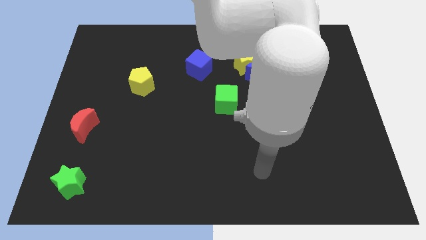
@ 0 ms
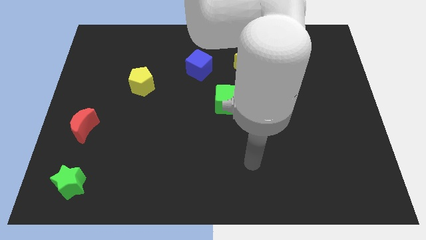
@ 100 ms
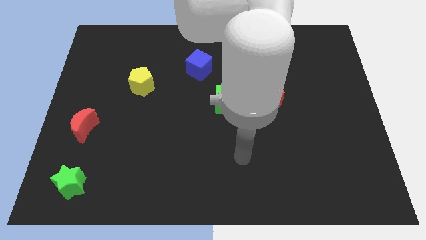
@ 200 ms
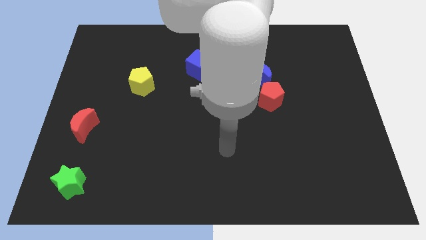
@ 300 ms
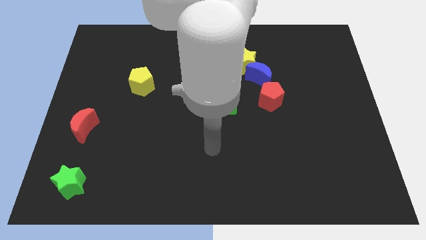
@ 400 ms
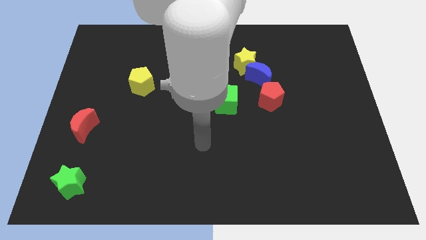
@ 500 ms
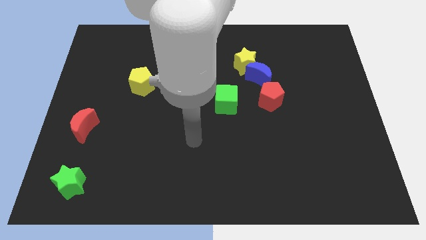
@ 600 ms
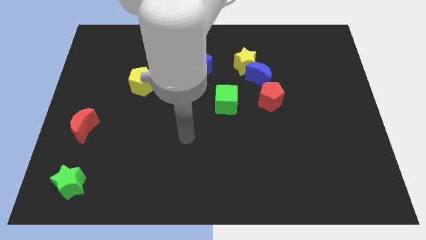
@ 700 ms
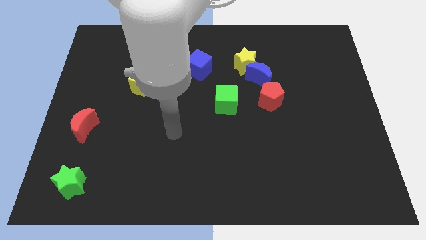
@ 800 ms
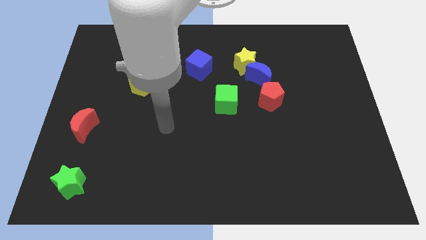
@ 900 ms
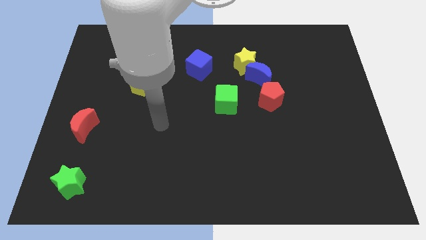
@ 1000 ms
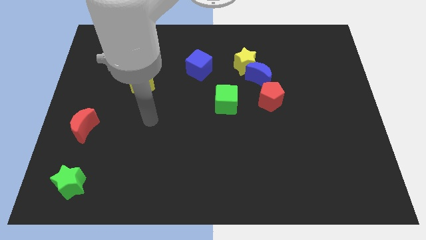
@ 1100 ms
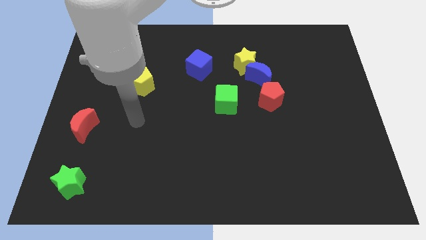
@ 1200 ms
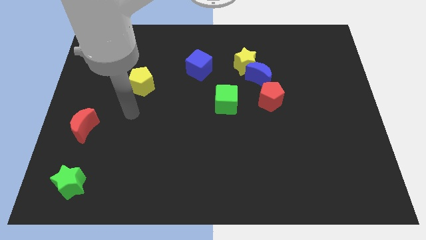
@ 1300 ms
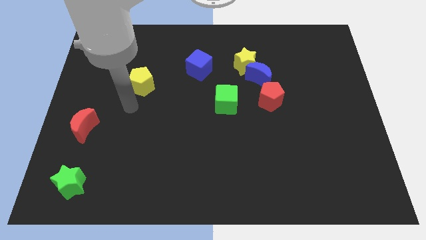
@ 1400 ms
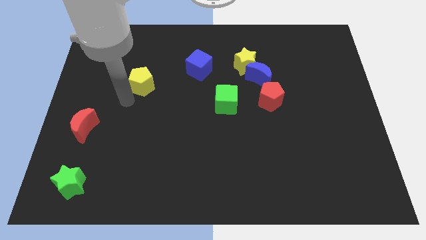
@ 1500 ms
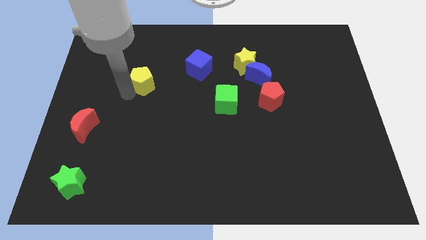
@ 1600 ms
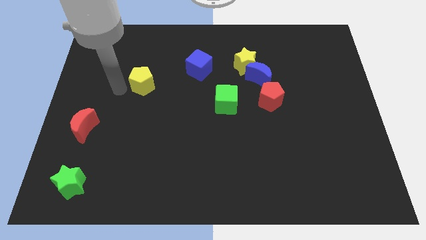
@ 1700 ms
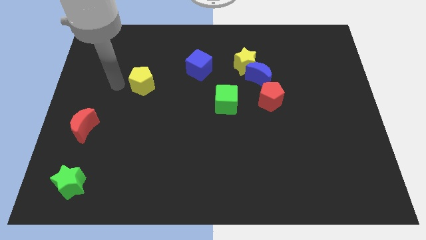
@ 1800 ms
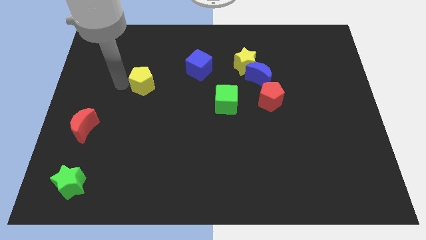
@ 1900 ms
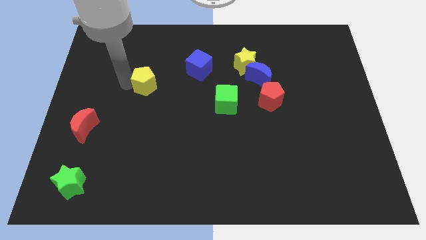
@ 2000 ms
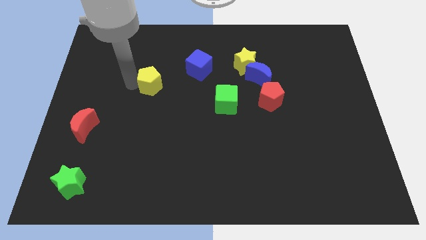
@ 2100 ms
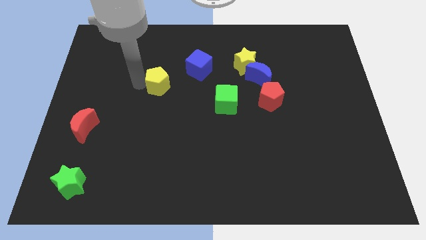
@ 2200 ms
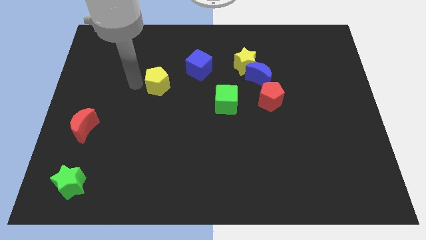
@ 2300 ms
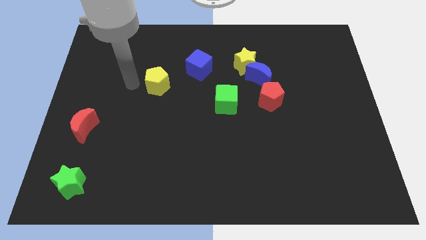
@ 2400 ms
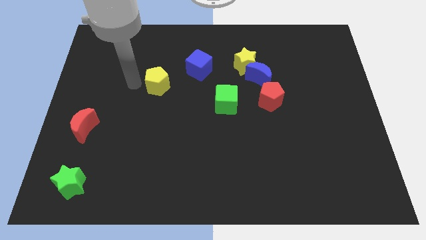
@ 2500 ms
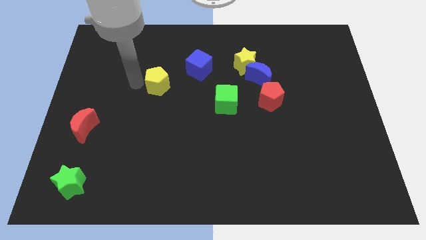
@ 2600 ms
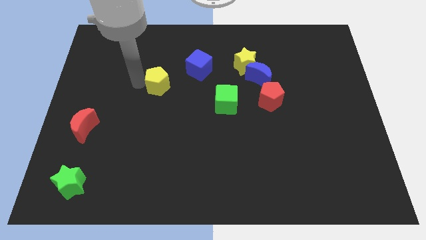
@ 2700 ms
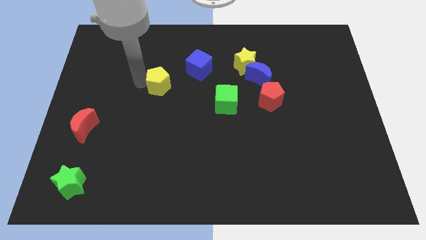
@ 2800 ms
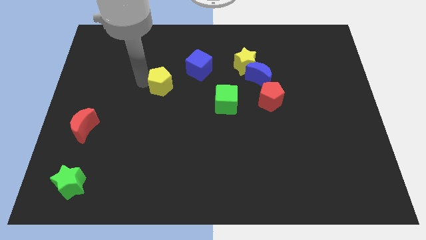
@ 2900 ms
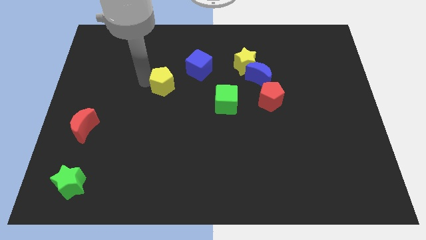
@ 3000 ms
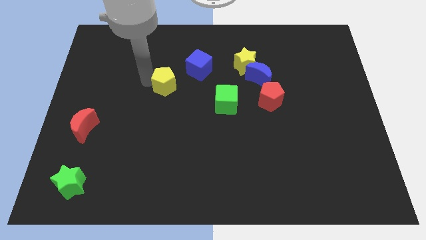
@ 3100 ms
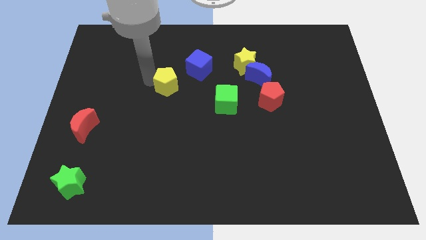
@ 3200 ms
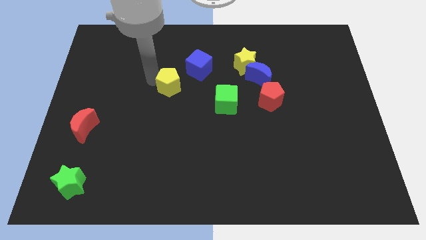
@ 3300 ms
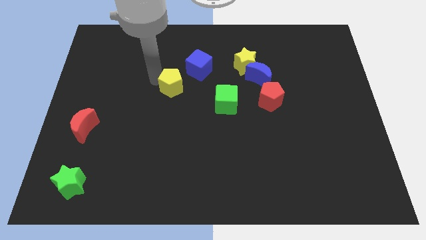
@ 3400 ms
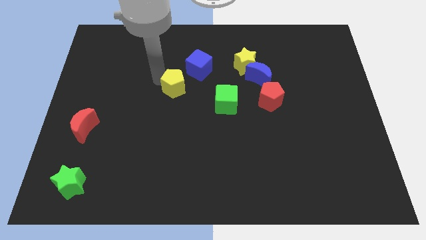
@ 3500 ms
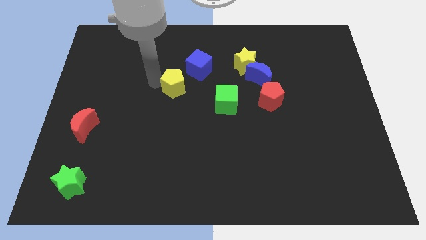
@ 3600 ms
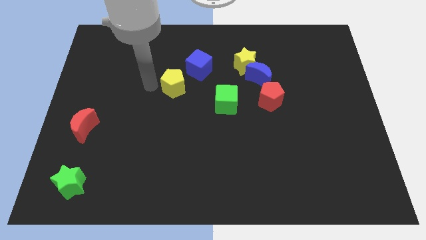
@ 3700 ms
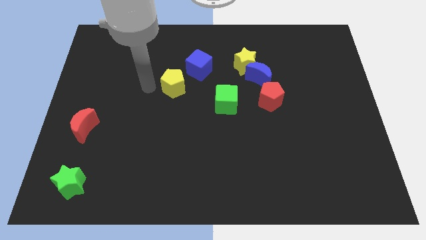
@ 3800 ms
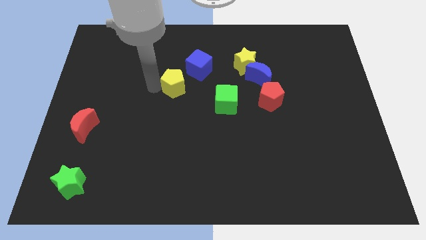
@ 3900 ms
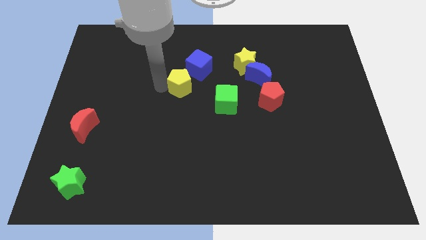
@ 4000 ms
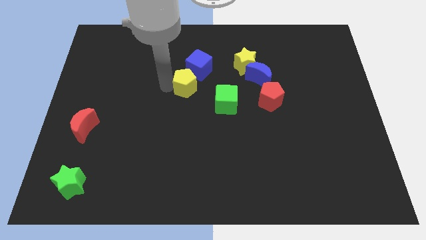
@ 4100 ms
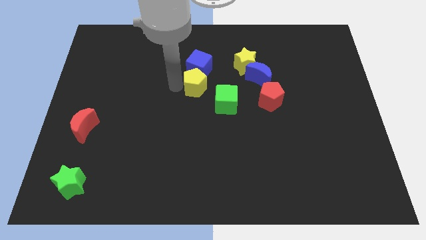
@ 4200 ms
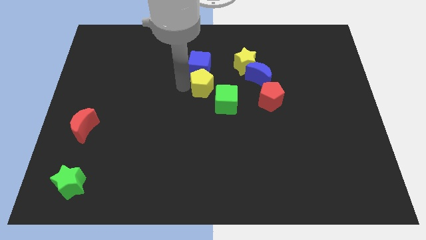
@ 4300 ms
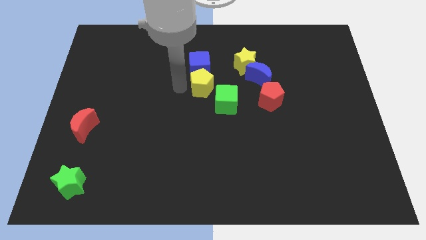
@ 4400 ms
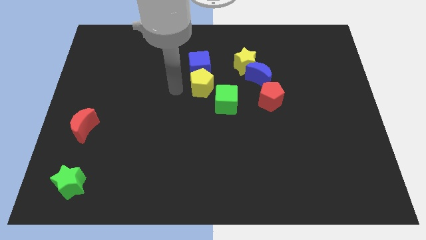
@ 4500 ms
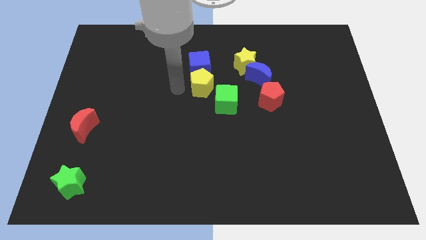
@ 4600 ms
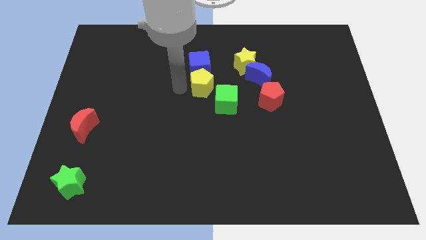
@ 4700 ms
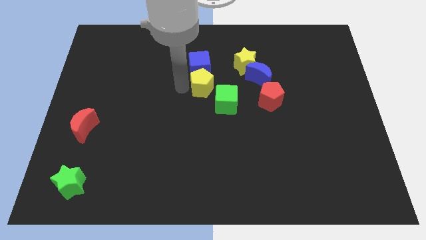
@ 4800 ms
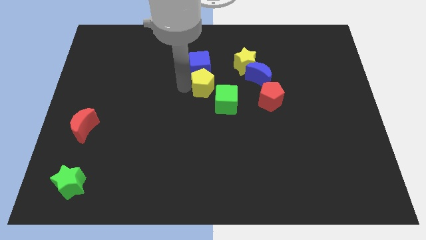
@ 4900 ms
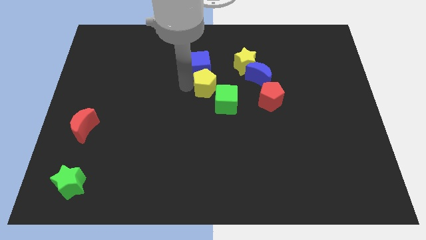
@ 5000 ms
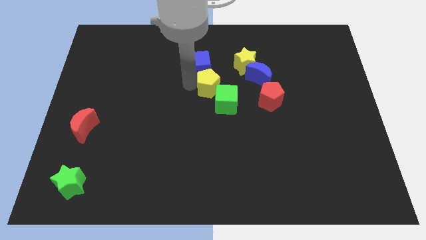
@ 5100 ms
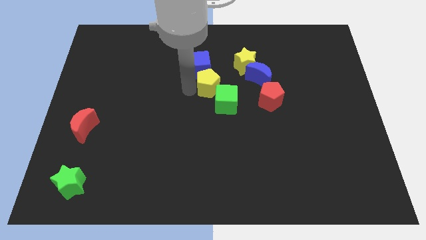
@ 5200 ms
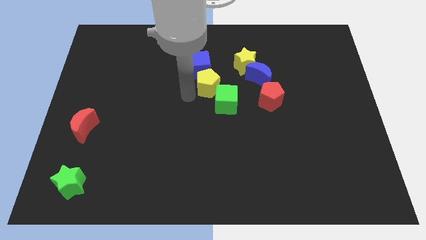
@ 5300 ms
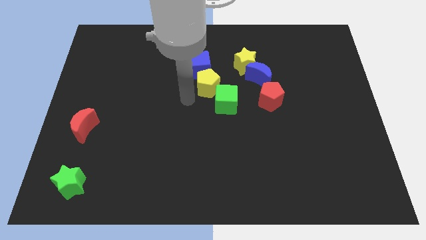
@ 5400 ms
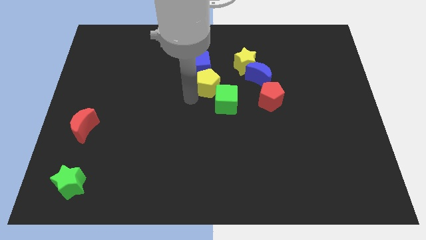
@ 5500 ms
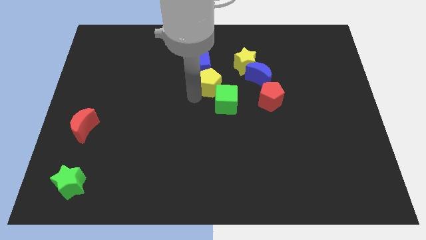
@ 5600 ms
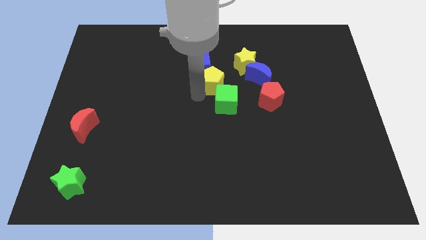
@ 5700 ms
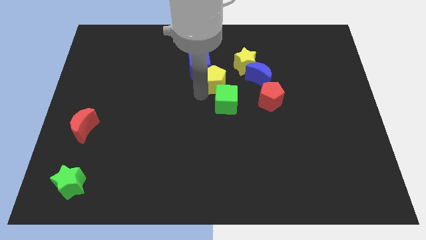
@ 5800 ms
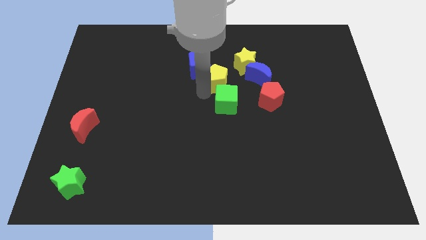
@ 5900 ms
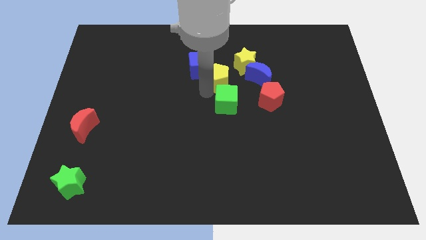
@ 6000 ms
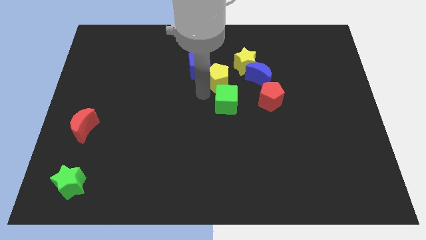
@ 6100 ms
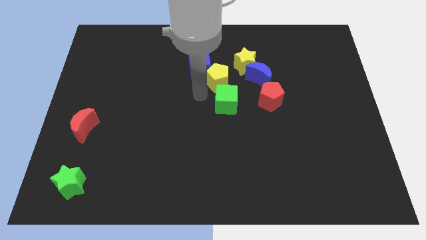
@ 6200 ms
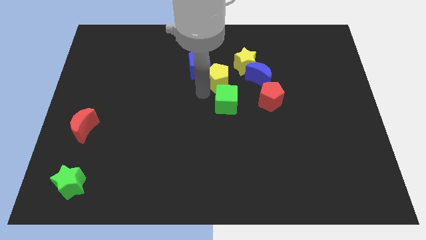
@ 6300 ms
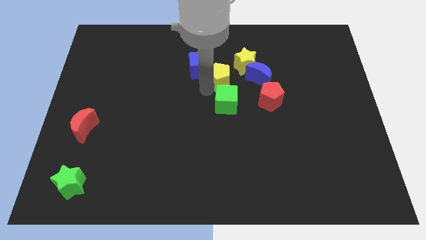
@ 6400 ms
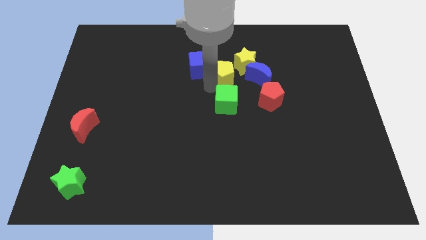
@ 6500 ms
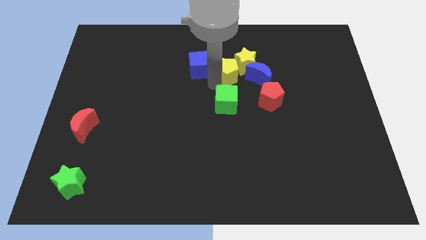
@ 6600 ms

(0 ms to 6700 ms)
slide the yellow pentagon to the yellow star

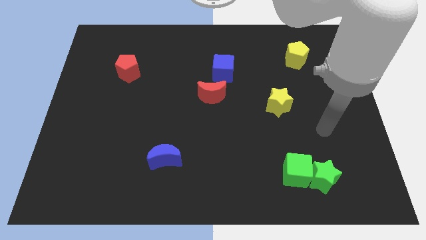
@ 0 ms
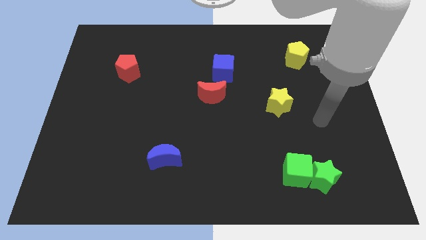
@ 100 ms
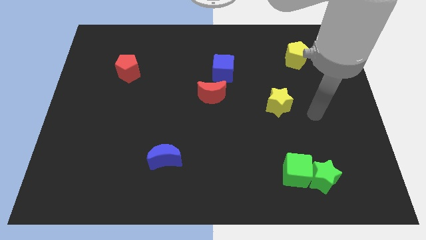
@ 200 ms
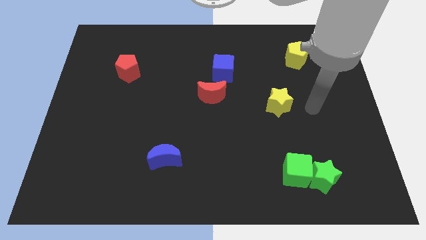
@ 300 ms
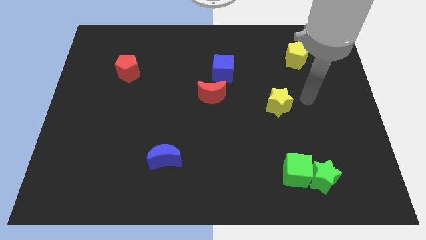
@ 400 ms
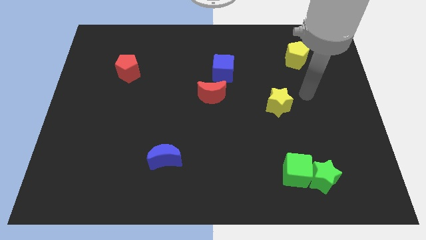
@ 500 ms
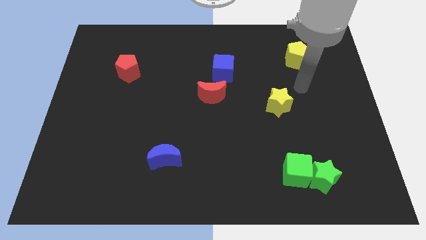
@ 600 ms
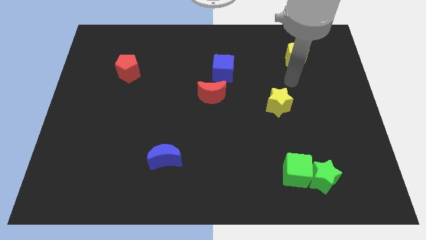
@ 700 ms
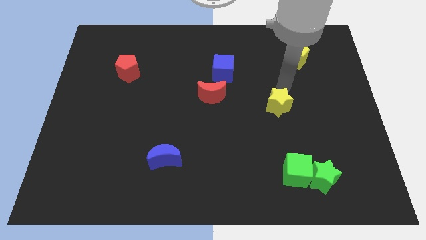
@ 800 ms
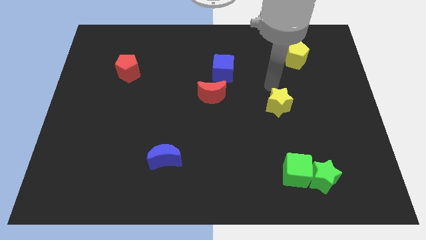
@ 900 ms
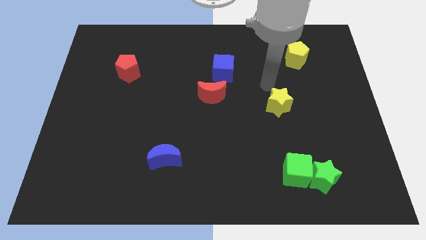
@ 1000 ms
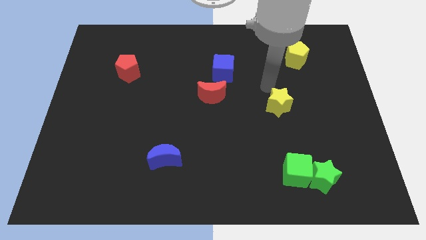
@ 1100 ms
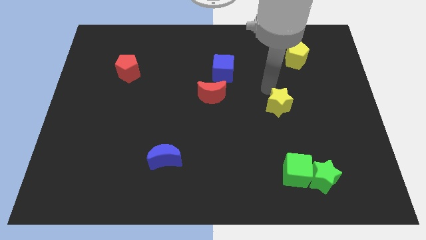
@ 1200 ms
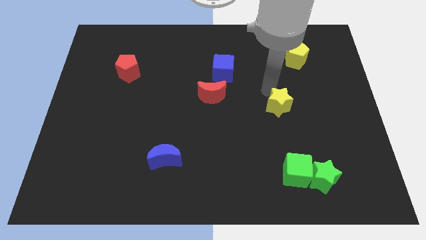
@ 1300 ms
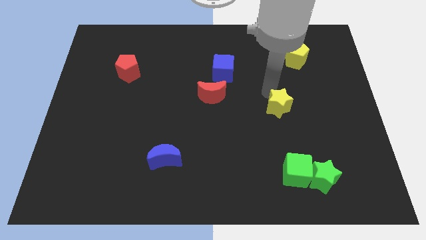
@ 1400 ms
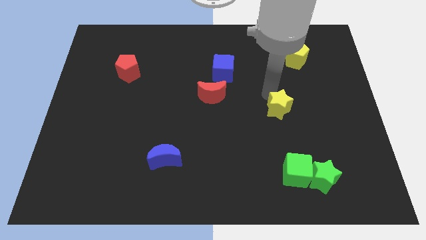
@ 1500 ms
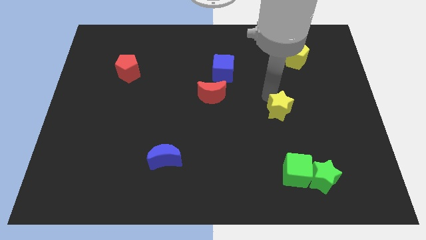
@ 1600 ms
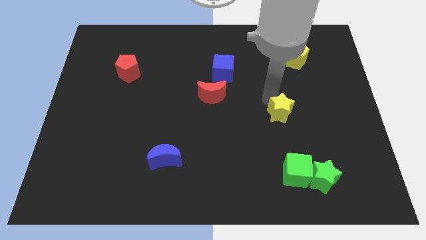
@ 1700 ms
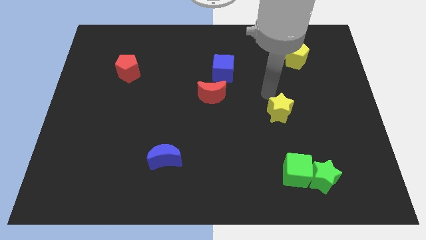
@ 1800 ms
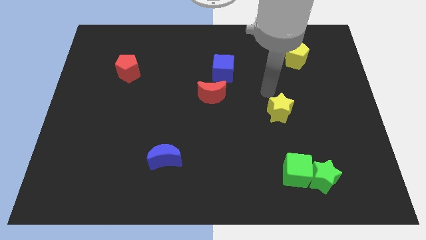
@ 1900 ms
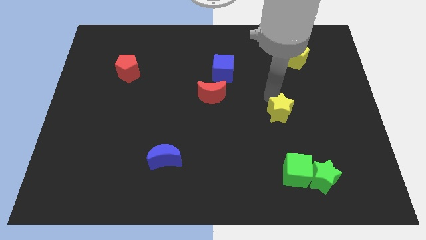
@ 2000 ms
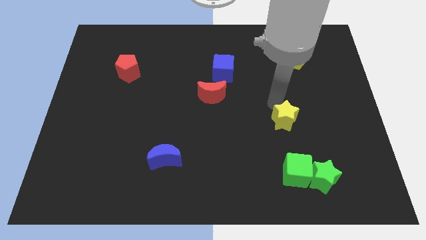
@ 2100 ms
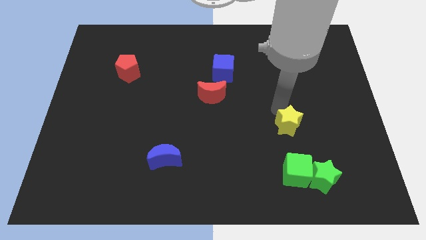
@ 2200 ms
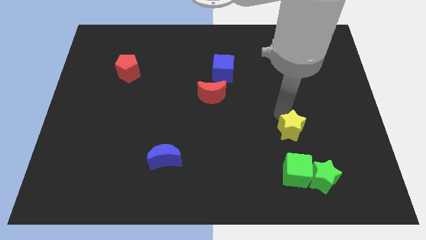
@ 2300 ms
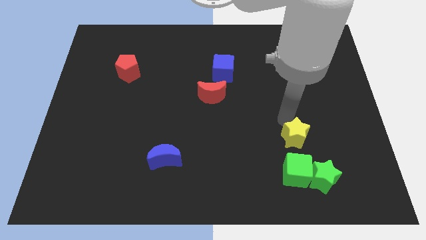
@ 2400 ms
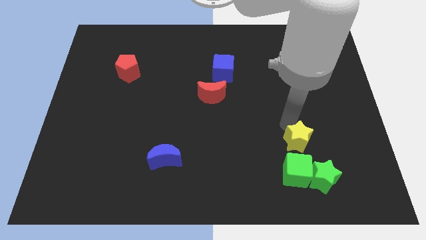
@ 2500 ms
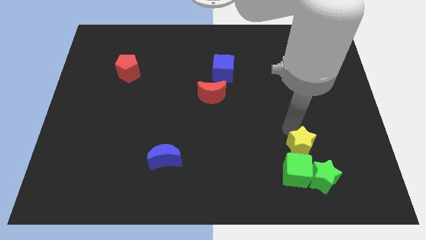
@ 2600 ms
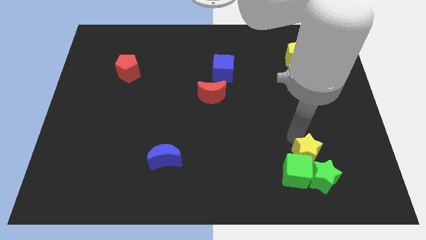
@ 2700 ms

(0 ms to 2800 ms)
slide the yellow star close to the green star
